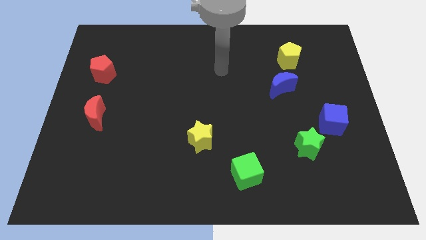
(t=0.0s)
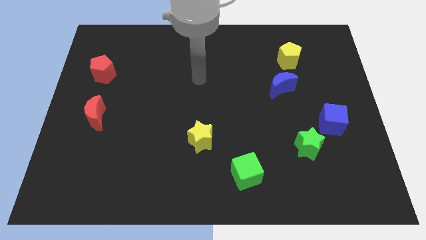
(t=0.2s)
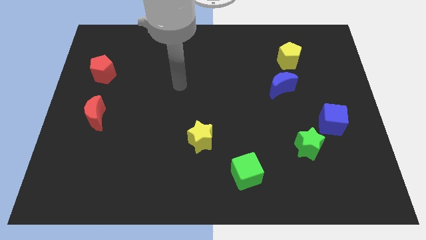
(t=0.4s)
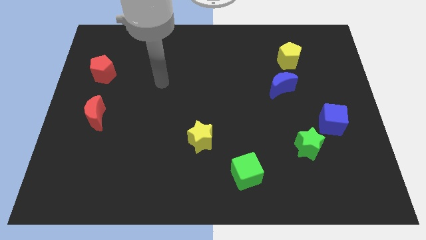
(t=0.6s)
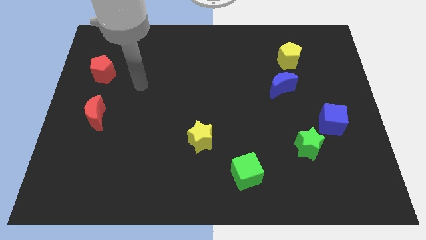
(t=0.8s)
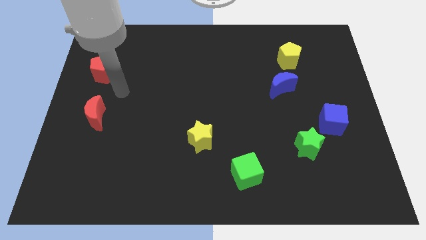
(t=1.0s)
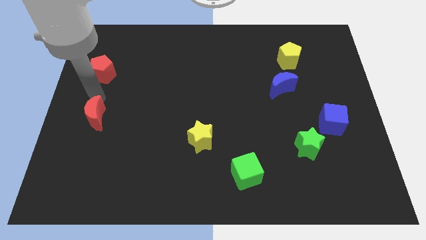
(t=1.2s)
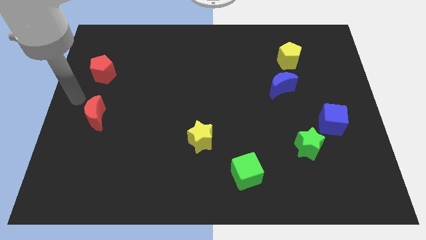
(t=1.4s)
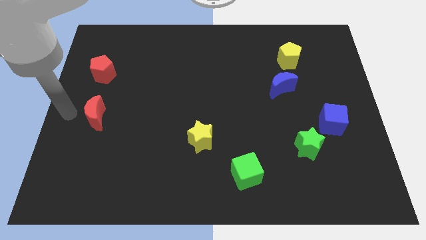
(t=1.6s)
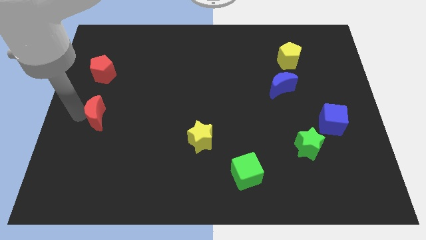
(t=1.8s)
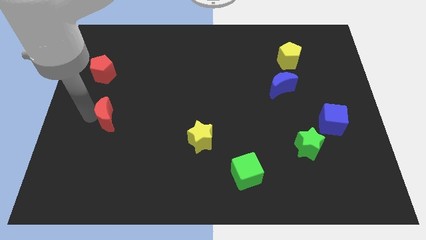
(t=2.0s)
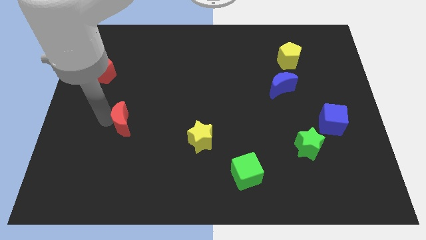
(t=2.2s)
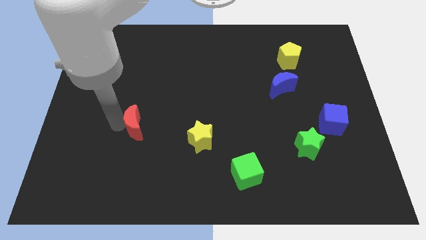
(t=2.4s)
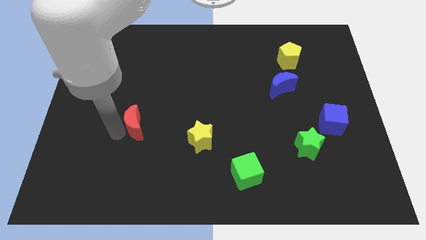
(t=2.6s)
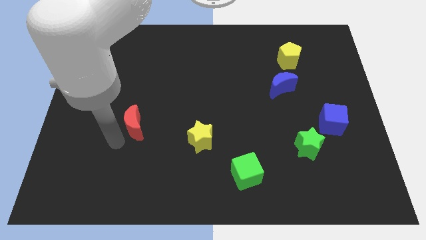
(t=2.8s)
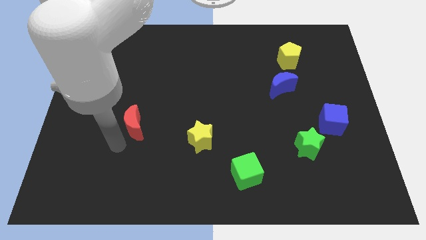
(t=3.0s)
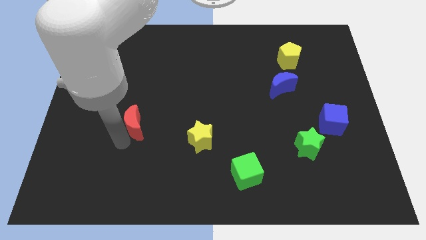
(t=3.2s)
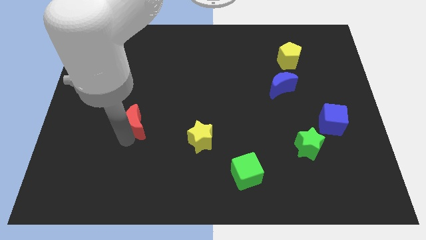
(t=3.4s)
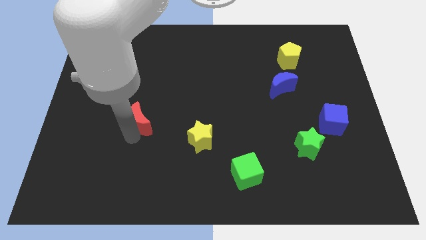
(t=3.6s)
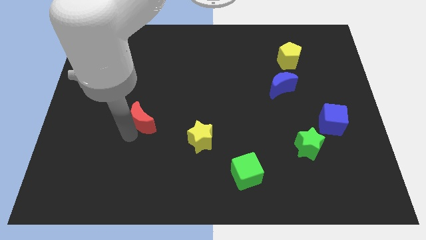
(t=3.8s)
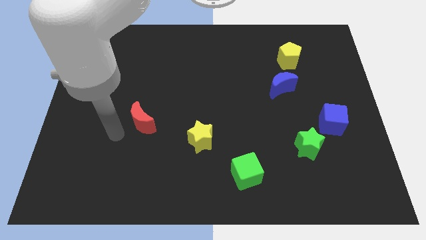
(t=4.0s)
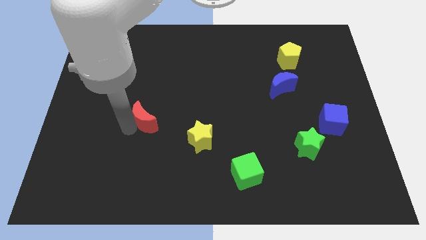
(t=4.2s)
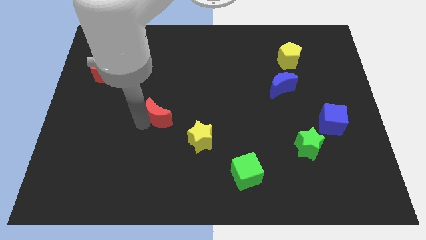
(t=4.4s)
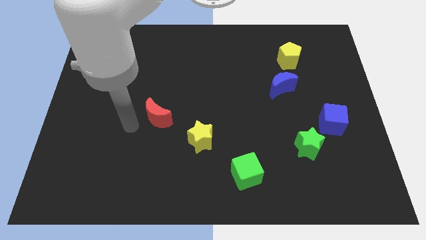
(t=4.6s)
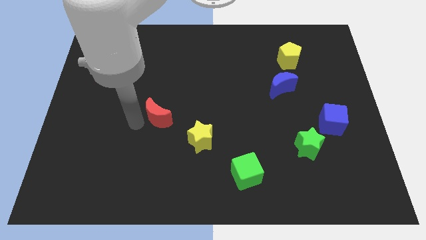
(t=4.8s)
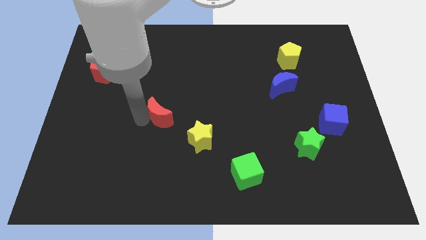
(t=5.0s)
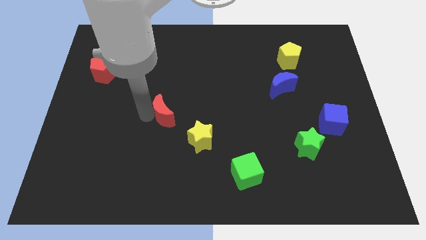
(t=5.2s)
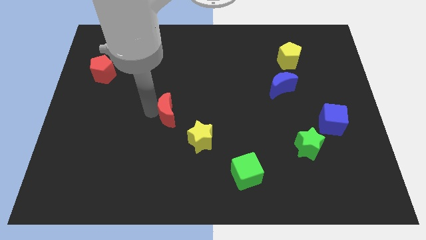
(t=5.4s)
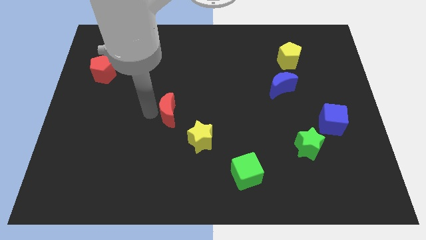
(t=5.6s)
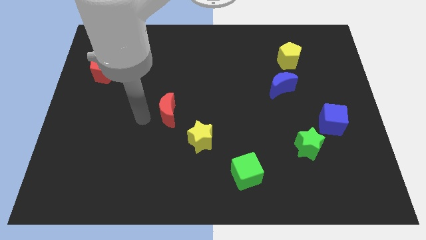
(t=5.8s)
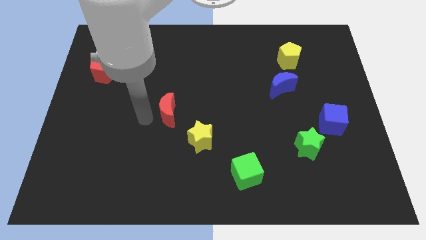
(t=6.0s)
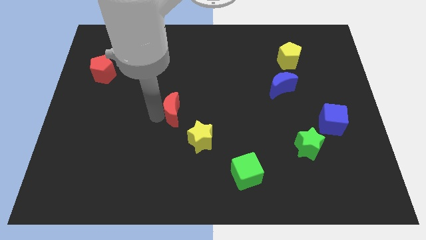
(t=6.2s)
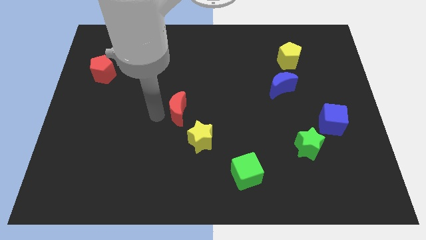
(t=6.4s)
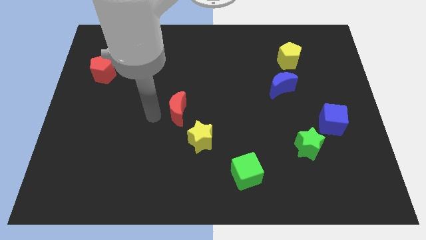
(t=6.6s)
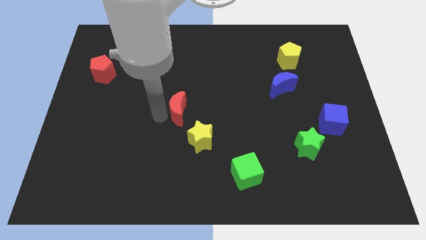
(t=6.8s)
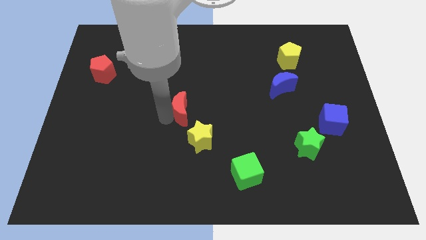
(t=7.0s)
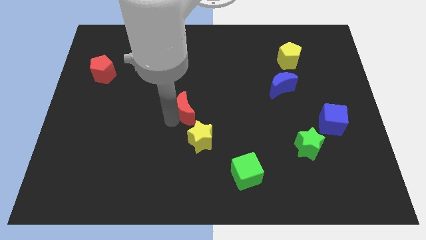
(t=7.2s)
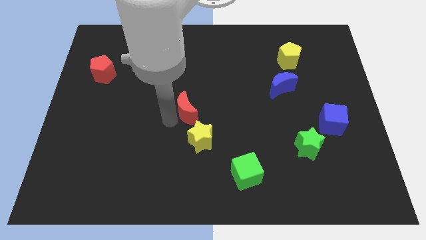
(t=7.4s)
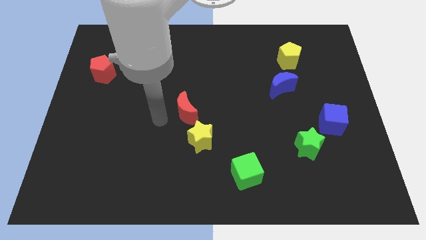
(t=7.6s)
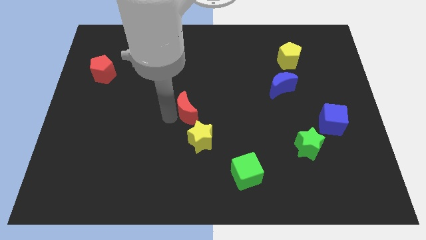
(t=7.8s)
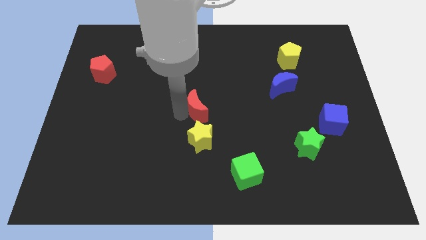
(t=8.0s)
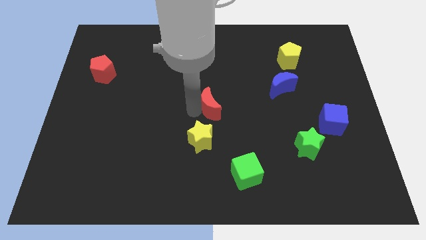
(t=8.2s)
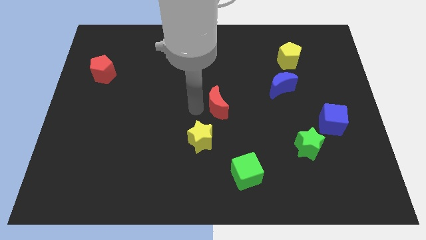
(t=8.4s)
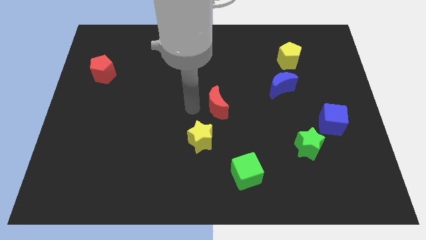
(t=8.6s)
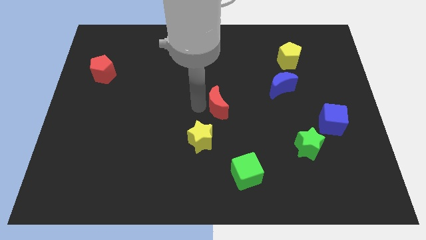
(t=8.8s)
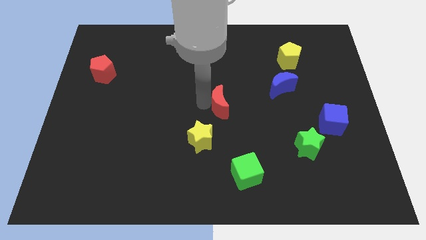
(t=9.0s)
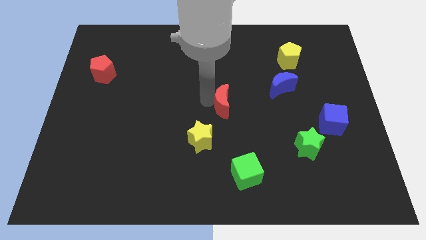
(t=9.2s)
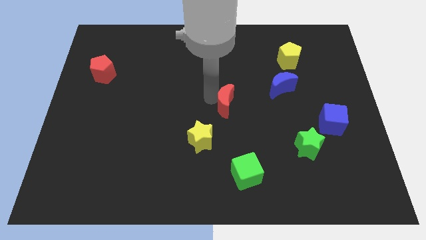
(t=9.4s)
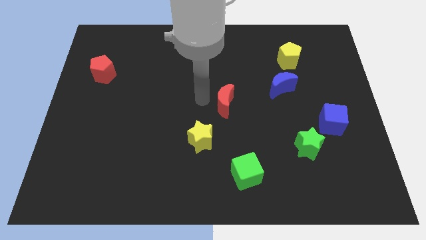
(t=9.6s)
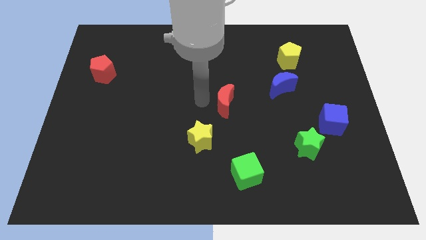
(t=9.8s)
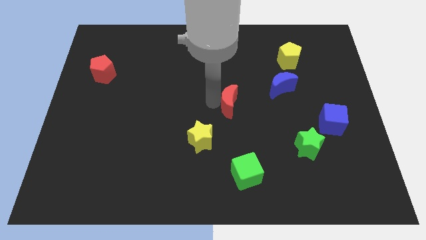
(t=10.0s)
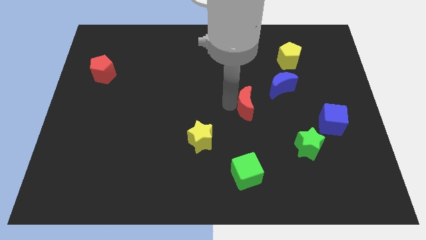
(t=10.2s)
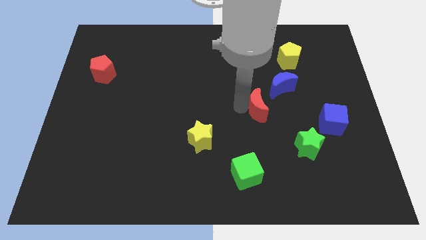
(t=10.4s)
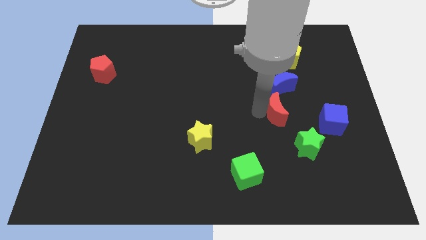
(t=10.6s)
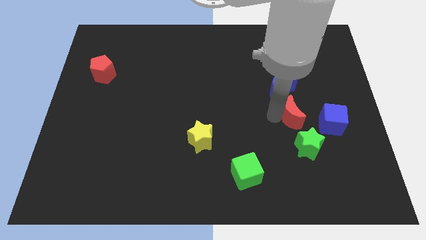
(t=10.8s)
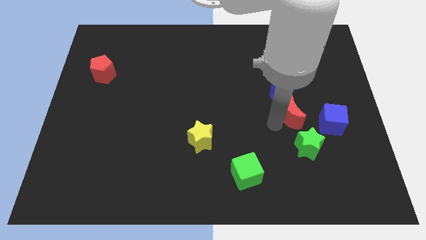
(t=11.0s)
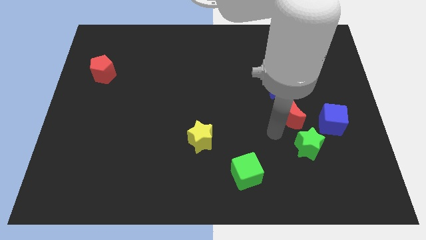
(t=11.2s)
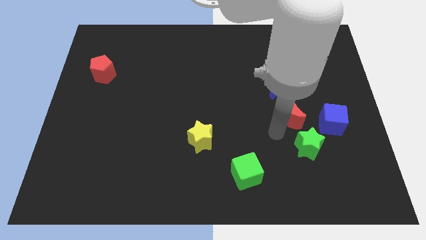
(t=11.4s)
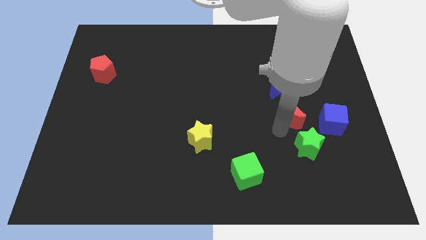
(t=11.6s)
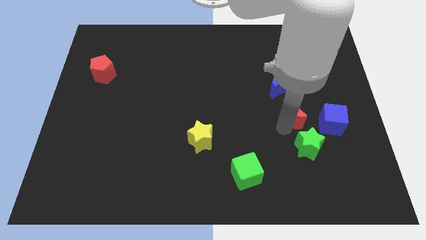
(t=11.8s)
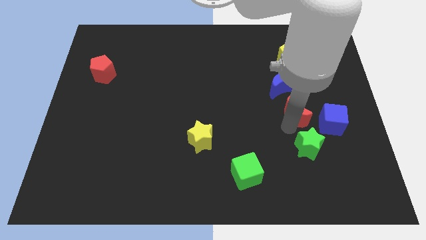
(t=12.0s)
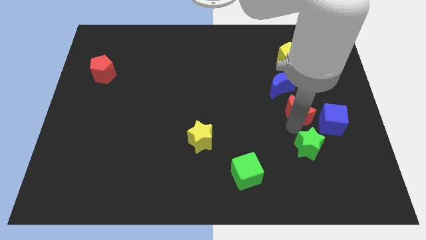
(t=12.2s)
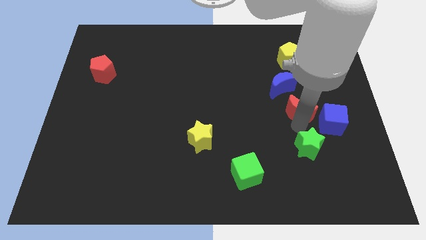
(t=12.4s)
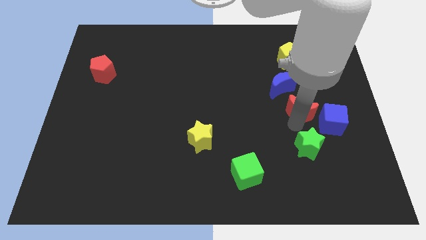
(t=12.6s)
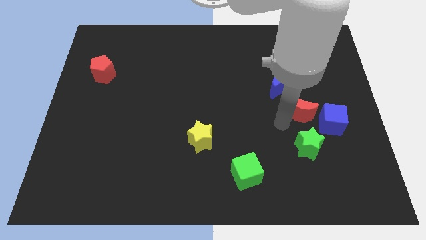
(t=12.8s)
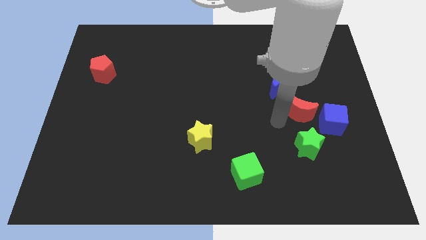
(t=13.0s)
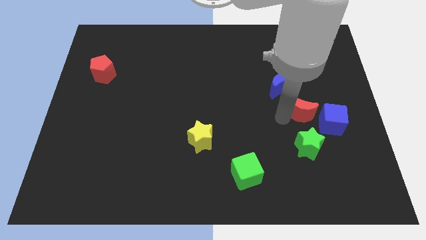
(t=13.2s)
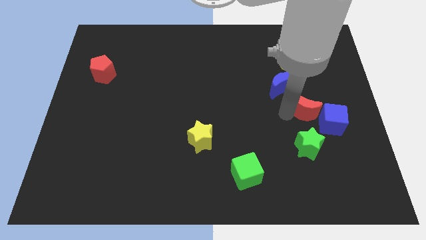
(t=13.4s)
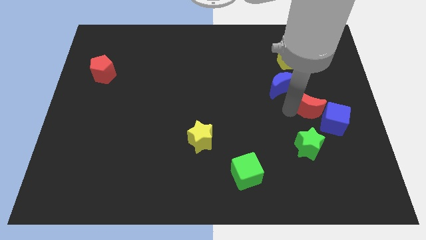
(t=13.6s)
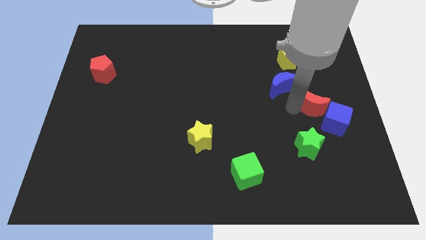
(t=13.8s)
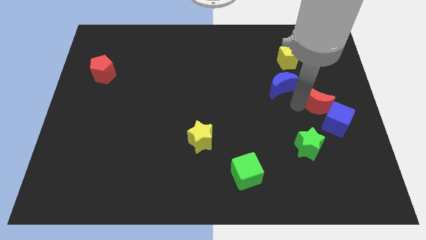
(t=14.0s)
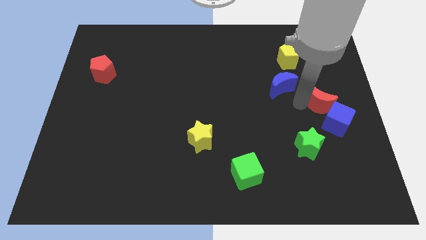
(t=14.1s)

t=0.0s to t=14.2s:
push the red moon to the right side of the board
